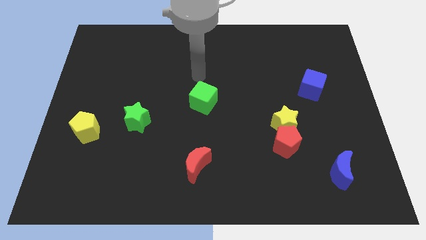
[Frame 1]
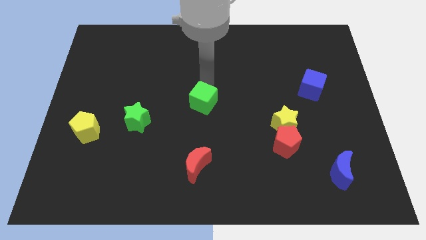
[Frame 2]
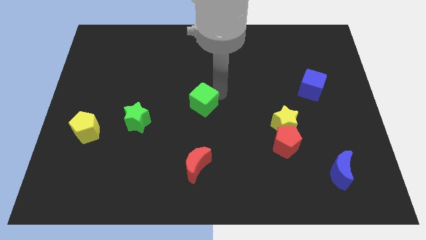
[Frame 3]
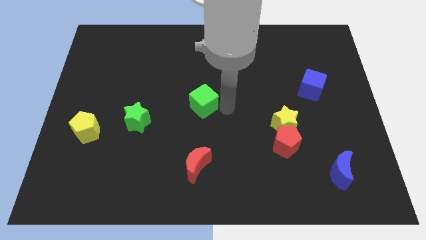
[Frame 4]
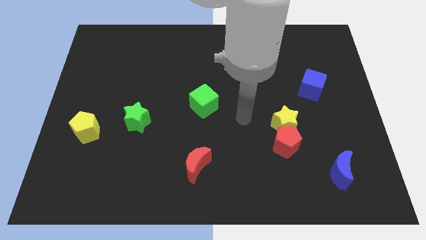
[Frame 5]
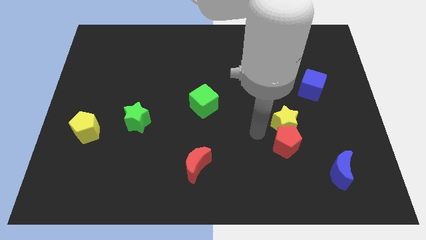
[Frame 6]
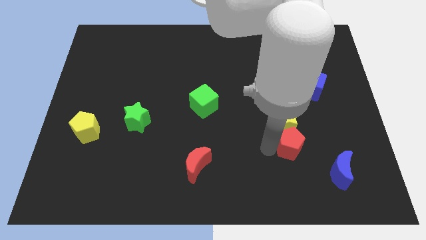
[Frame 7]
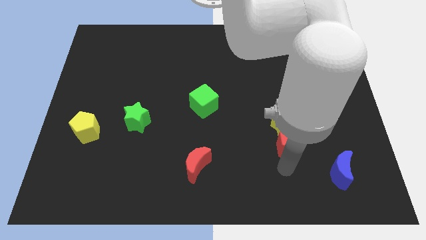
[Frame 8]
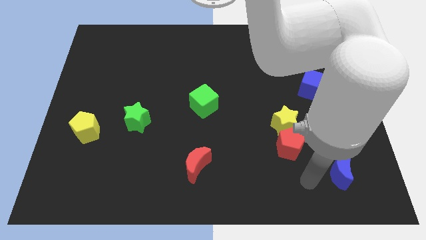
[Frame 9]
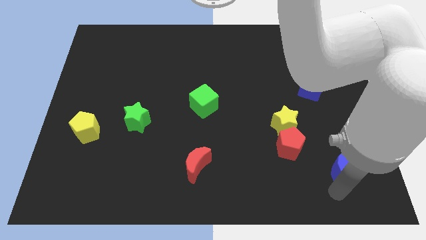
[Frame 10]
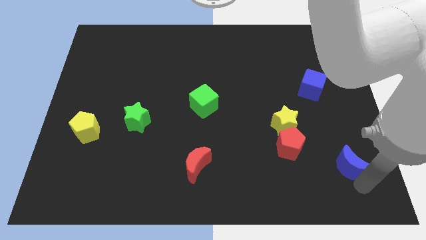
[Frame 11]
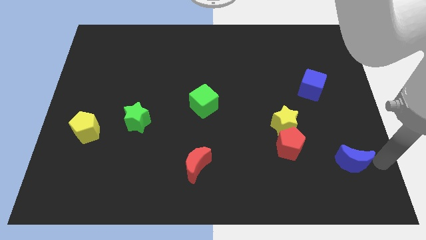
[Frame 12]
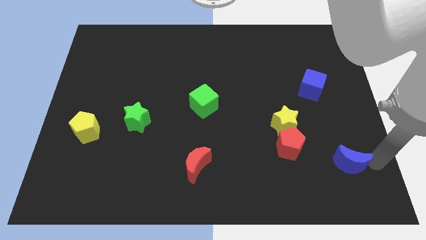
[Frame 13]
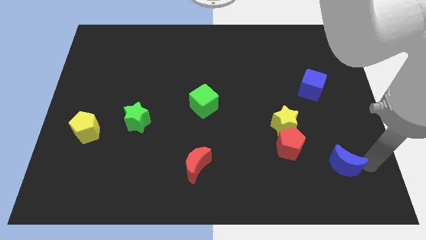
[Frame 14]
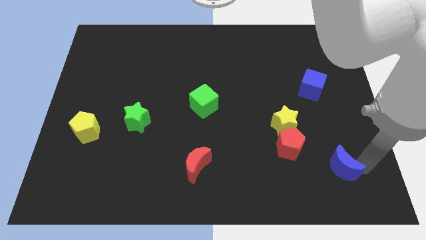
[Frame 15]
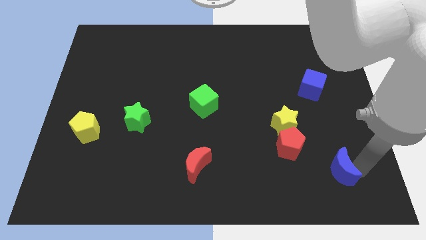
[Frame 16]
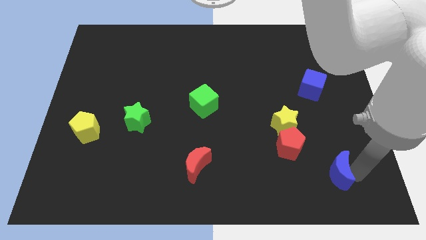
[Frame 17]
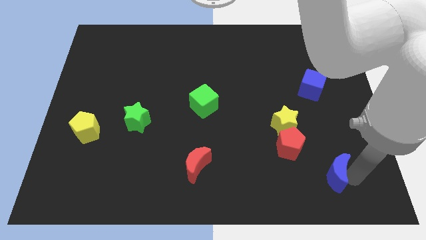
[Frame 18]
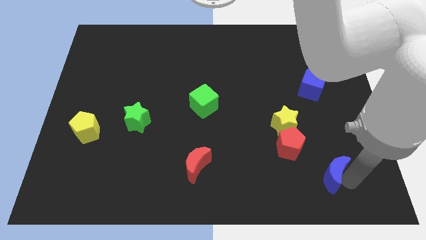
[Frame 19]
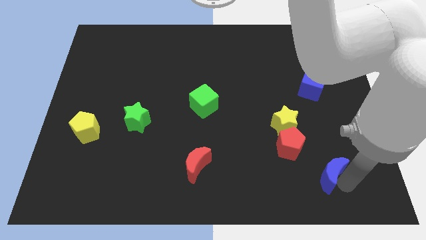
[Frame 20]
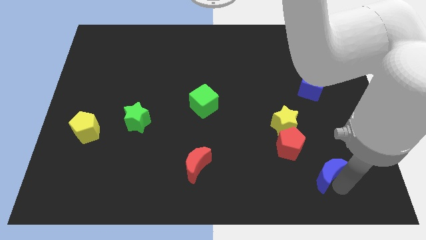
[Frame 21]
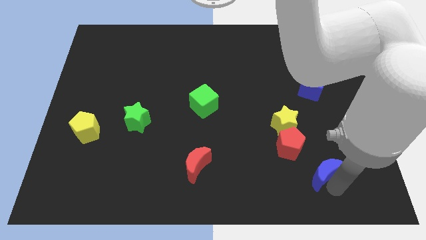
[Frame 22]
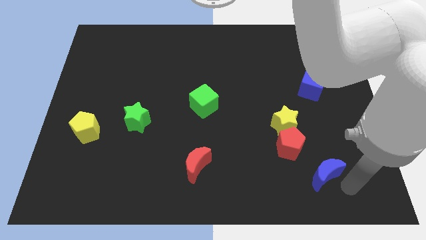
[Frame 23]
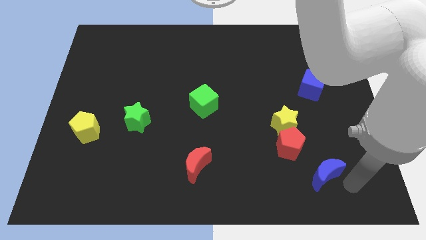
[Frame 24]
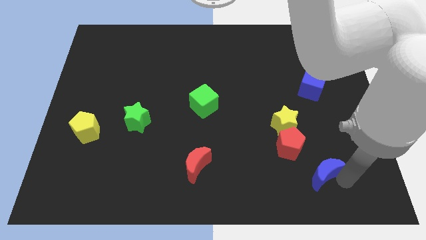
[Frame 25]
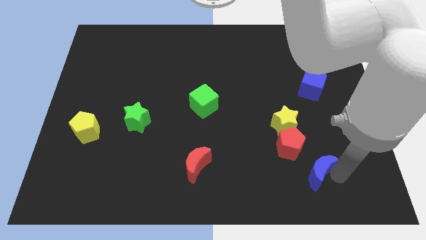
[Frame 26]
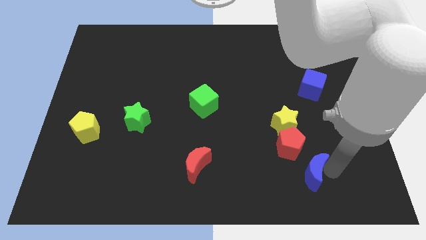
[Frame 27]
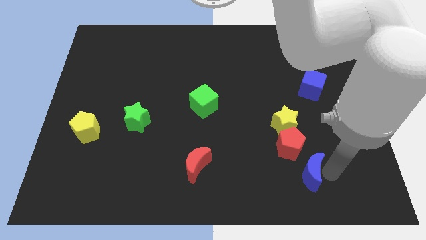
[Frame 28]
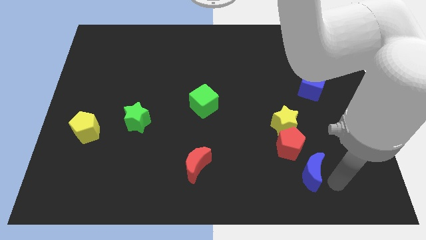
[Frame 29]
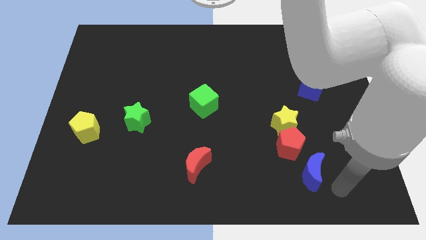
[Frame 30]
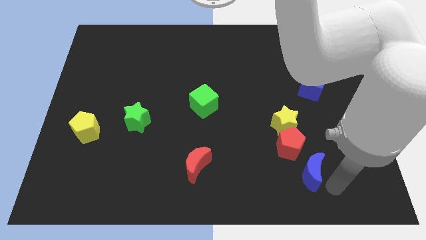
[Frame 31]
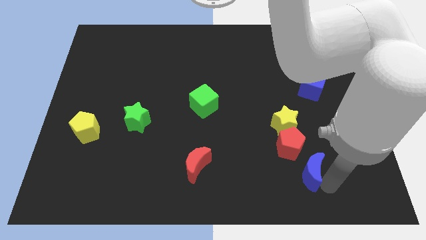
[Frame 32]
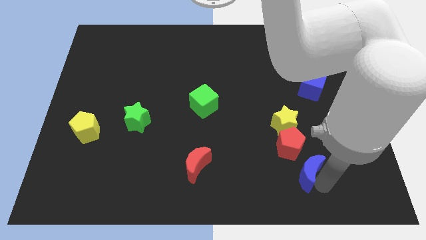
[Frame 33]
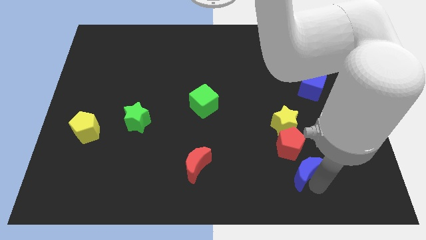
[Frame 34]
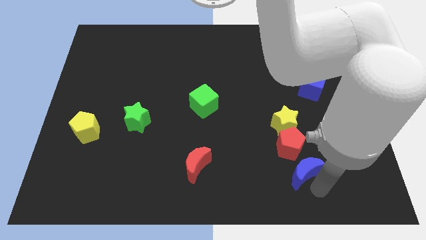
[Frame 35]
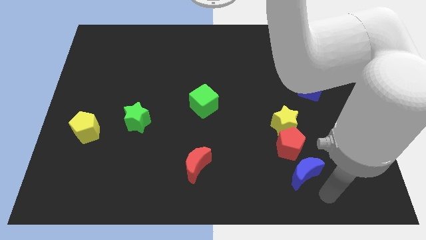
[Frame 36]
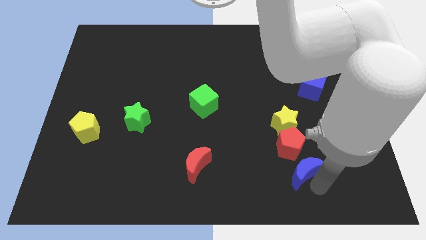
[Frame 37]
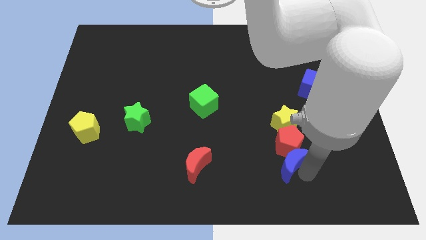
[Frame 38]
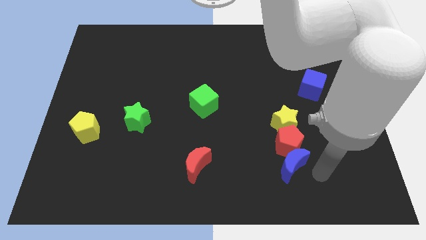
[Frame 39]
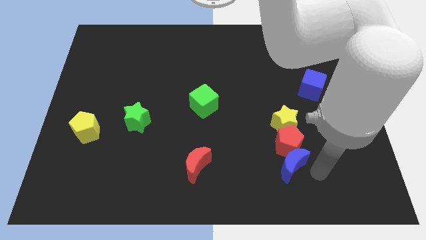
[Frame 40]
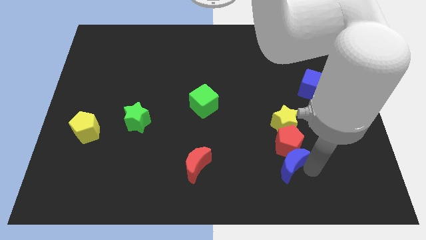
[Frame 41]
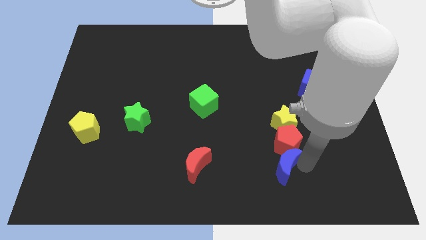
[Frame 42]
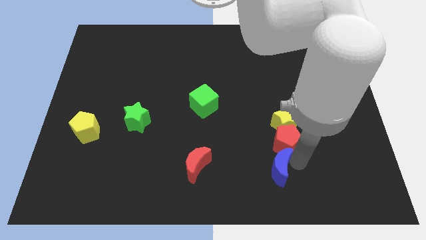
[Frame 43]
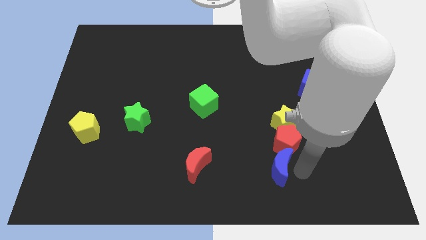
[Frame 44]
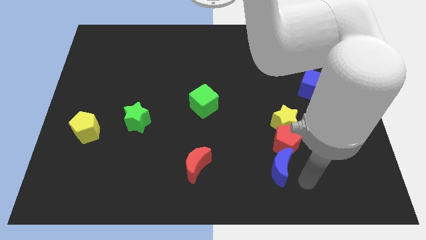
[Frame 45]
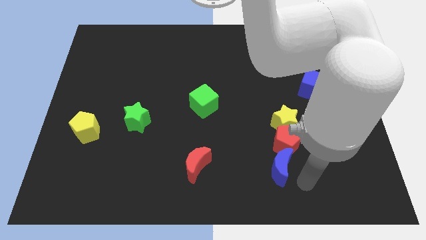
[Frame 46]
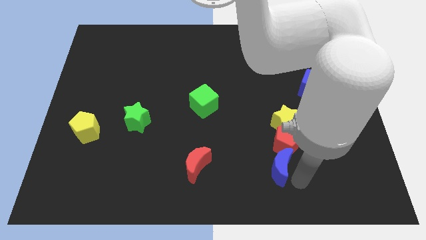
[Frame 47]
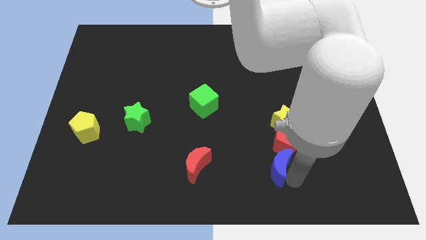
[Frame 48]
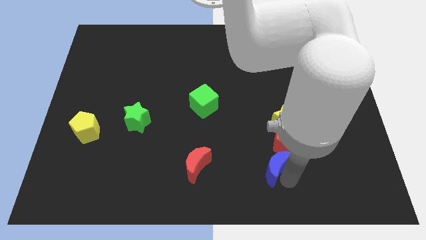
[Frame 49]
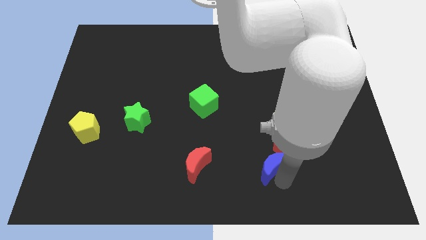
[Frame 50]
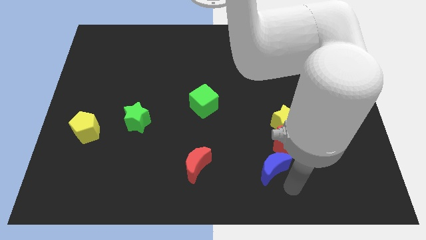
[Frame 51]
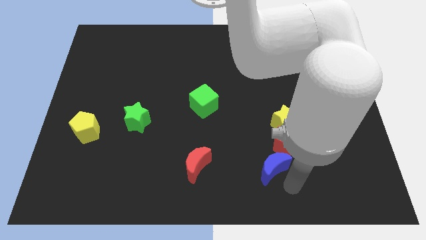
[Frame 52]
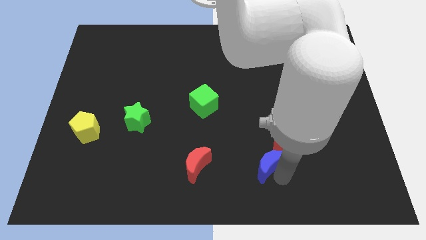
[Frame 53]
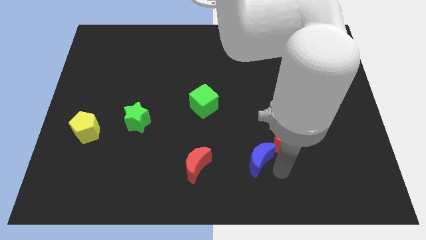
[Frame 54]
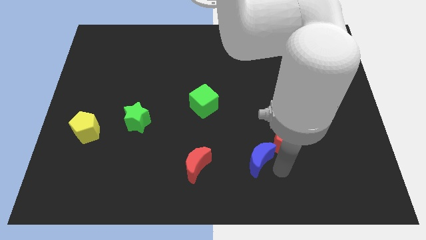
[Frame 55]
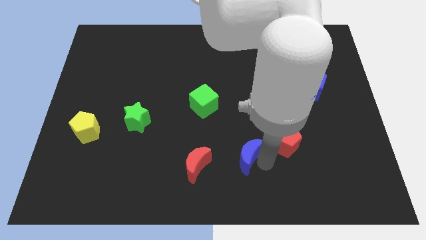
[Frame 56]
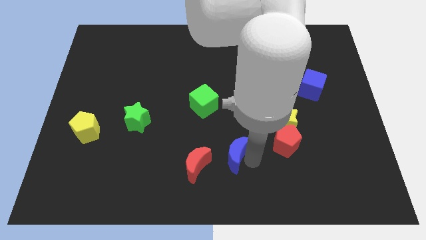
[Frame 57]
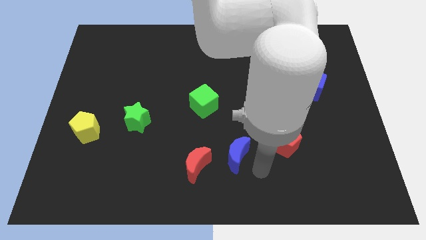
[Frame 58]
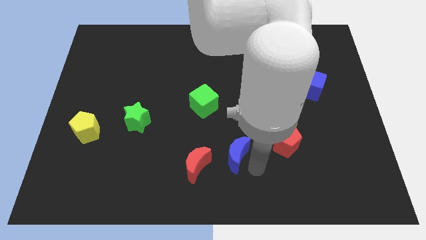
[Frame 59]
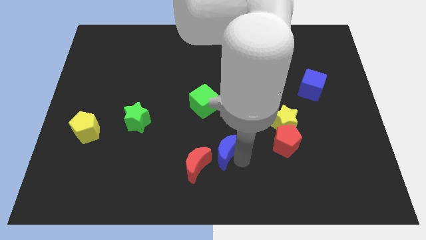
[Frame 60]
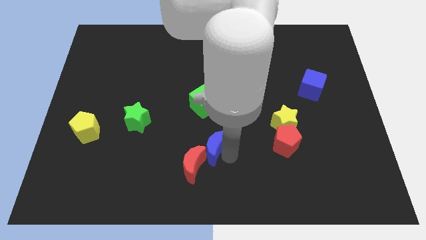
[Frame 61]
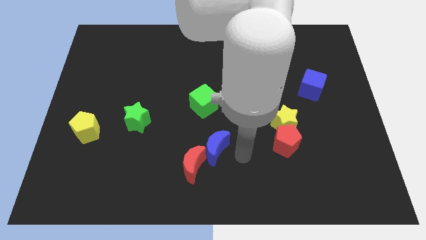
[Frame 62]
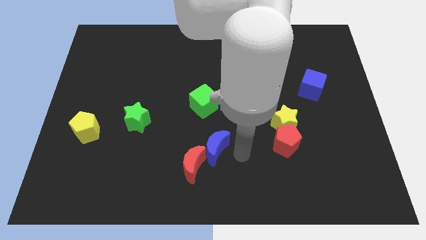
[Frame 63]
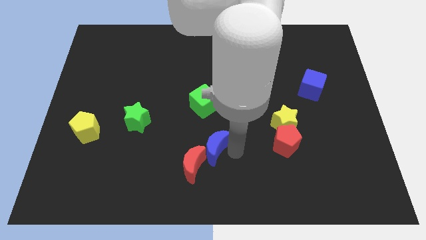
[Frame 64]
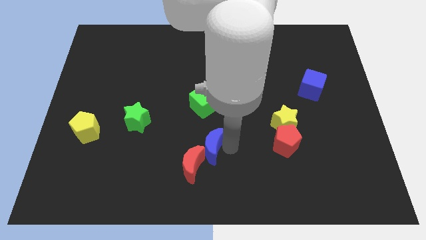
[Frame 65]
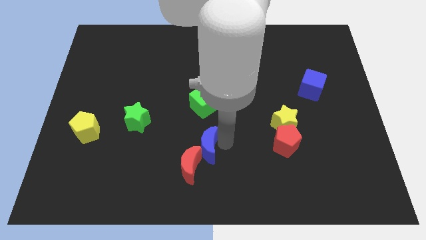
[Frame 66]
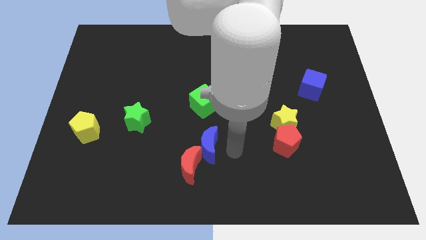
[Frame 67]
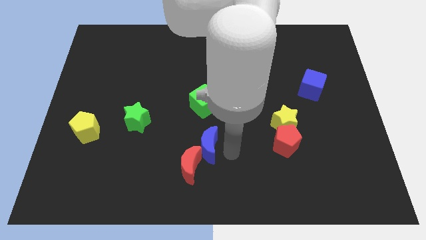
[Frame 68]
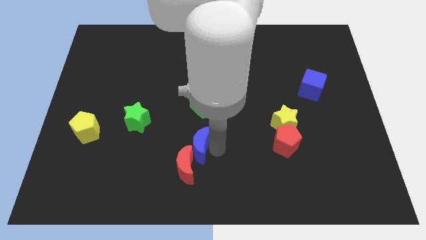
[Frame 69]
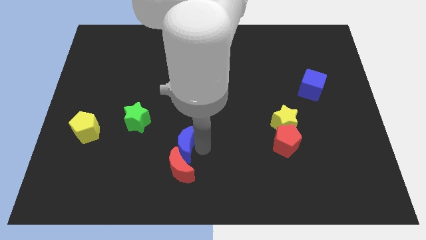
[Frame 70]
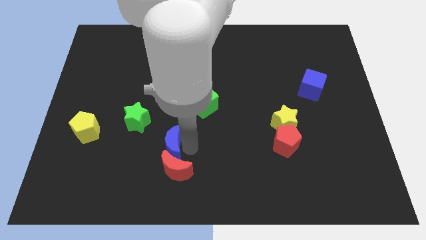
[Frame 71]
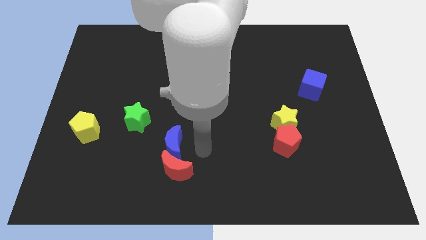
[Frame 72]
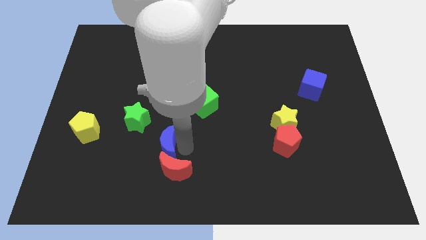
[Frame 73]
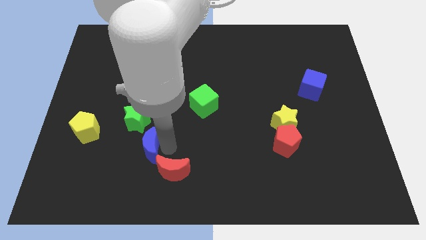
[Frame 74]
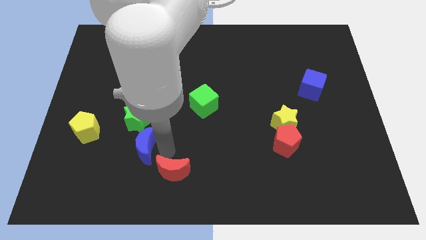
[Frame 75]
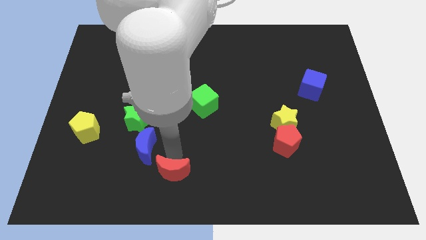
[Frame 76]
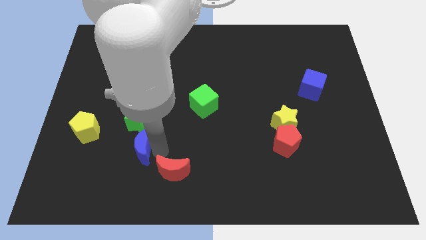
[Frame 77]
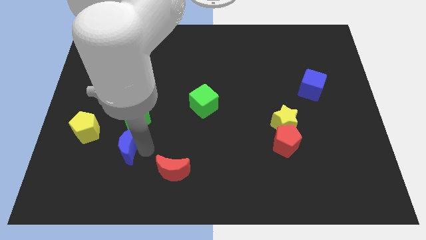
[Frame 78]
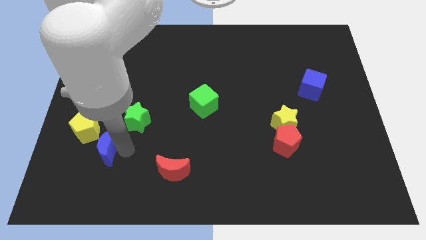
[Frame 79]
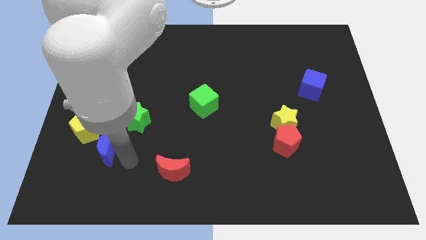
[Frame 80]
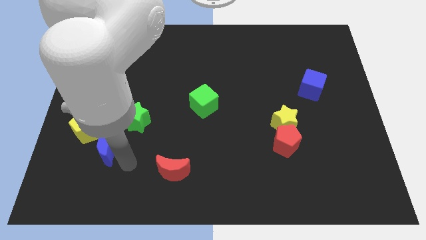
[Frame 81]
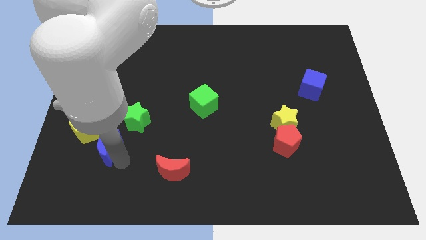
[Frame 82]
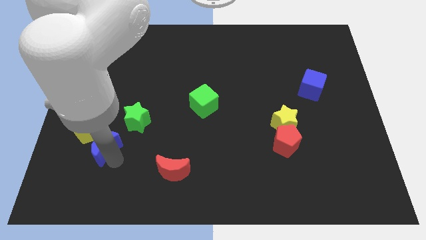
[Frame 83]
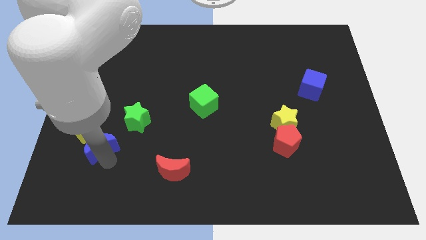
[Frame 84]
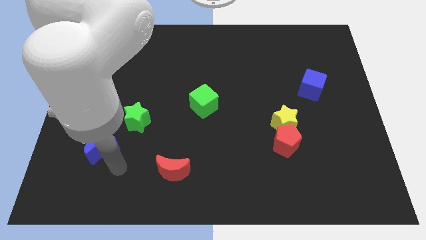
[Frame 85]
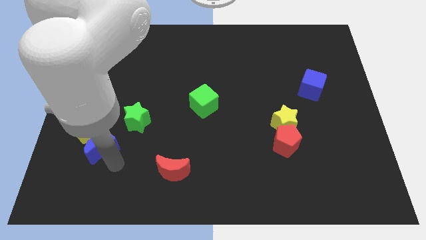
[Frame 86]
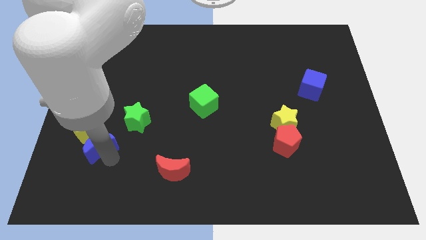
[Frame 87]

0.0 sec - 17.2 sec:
slide the blue moon to the yellow pentagon
